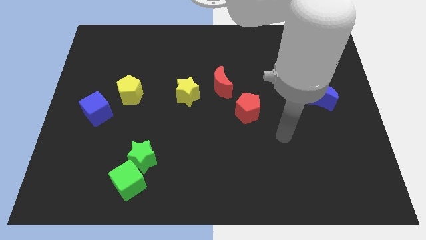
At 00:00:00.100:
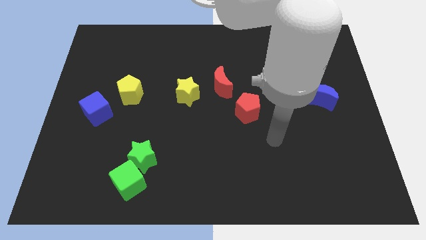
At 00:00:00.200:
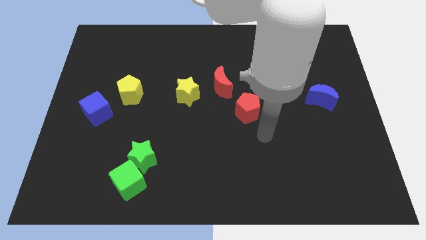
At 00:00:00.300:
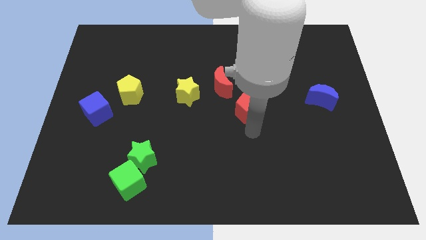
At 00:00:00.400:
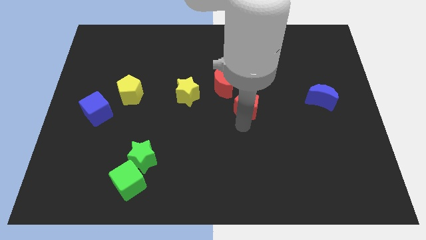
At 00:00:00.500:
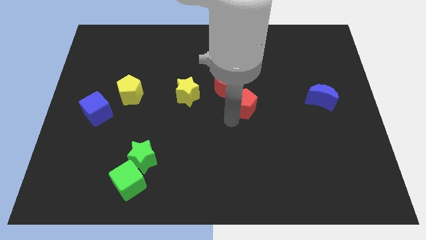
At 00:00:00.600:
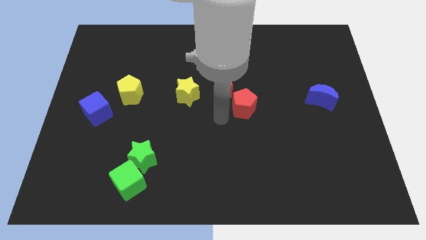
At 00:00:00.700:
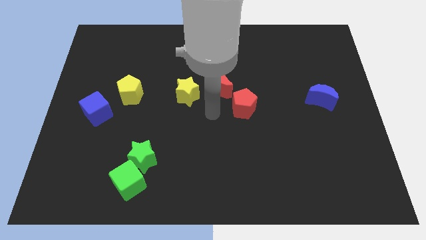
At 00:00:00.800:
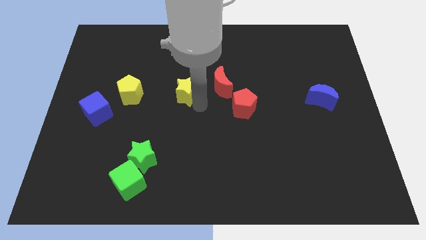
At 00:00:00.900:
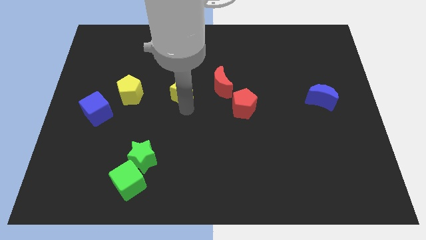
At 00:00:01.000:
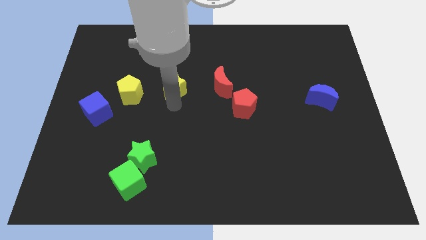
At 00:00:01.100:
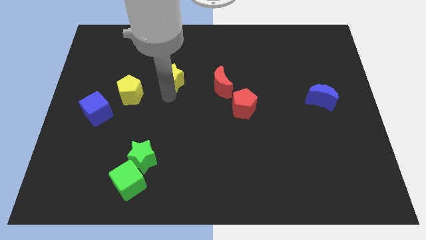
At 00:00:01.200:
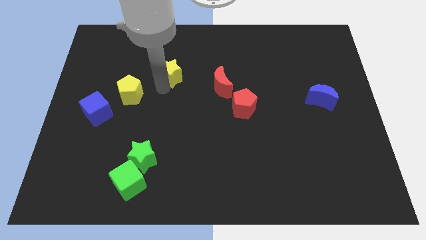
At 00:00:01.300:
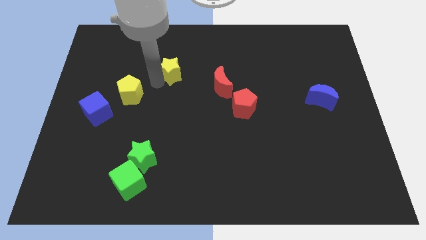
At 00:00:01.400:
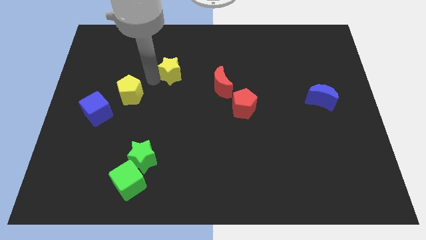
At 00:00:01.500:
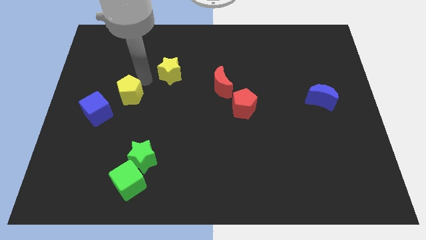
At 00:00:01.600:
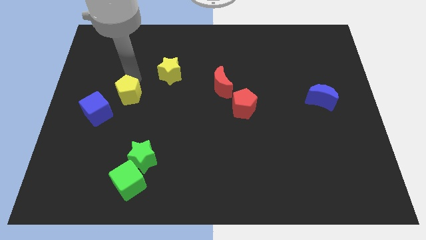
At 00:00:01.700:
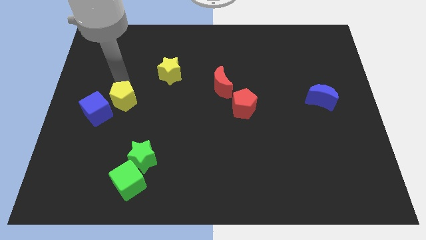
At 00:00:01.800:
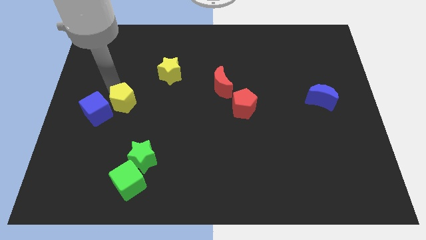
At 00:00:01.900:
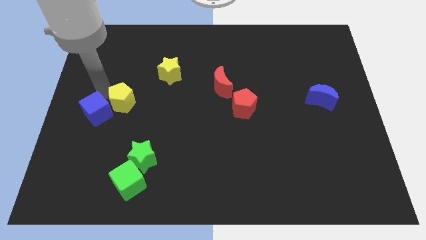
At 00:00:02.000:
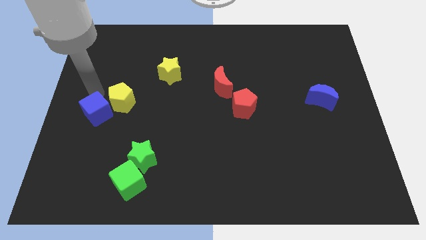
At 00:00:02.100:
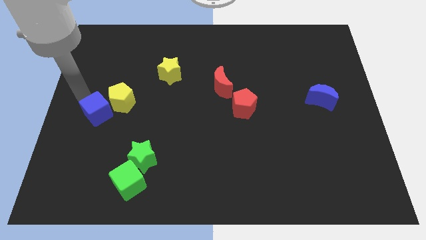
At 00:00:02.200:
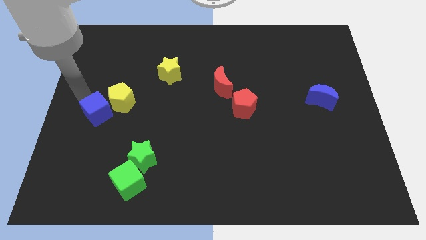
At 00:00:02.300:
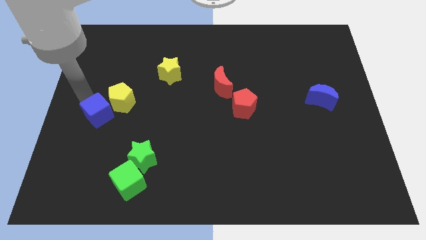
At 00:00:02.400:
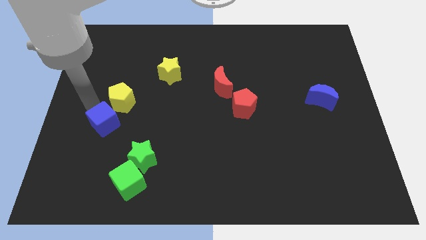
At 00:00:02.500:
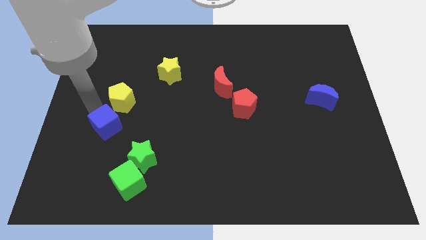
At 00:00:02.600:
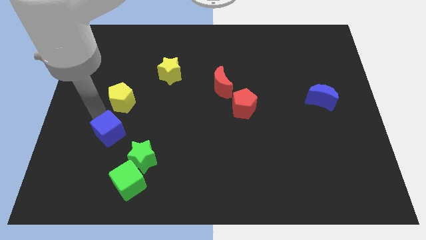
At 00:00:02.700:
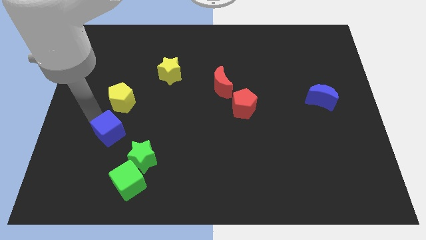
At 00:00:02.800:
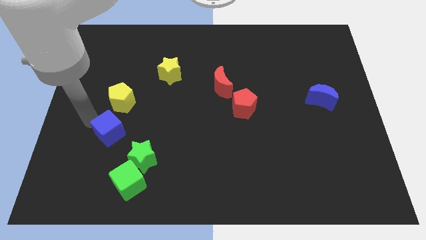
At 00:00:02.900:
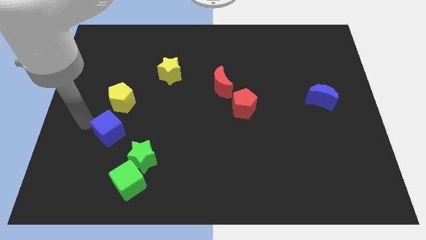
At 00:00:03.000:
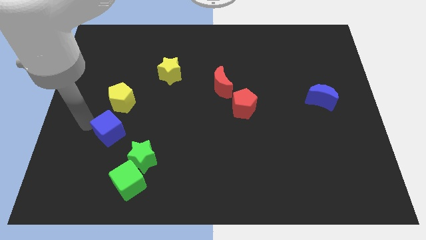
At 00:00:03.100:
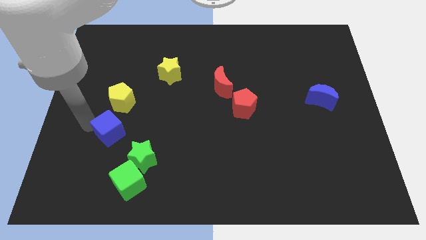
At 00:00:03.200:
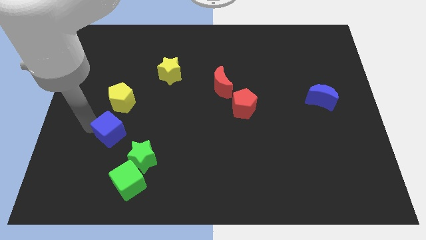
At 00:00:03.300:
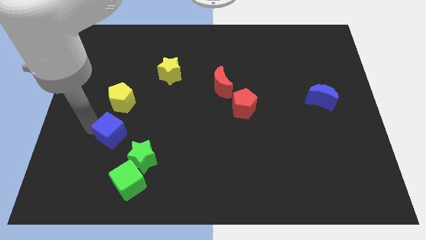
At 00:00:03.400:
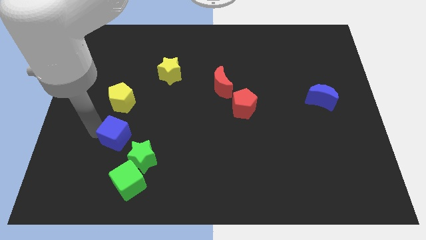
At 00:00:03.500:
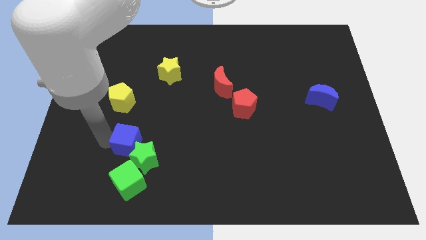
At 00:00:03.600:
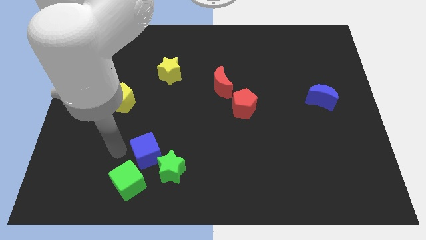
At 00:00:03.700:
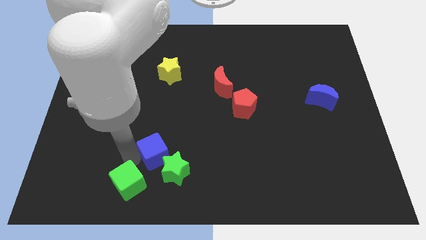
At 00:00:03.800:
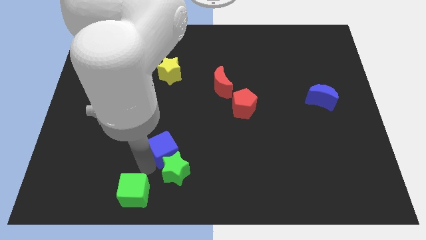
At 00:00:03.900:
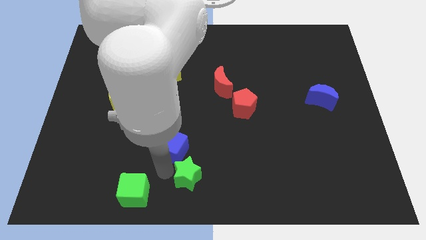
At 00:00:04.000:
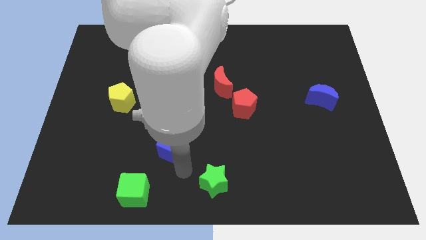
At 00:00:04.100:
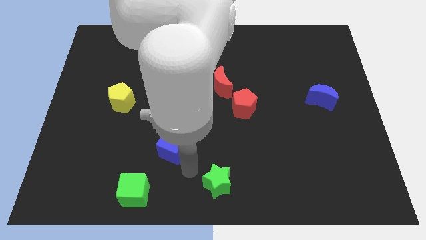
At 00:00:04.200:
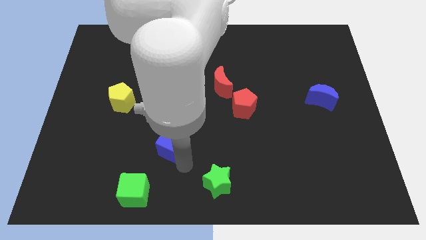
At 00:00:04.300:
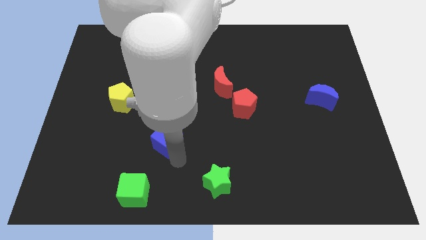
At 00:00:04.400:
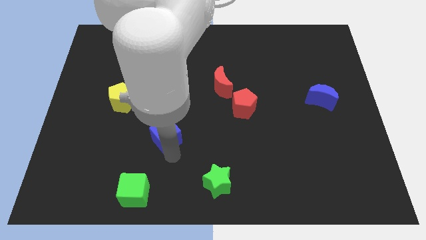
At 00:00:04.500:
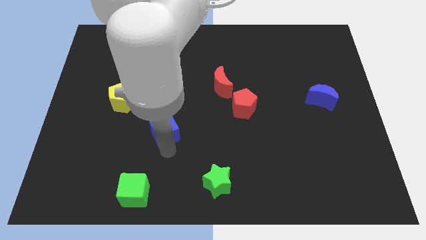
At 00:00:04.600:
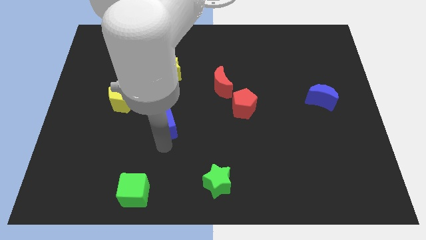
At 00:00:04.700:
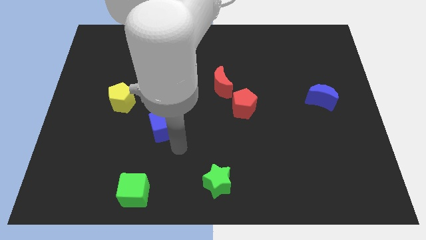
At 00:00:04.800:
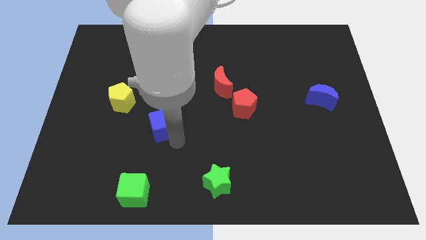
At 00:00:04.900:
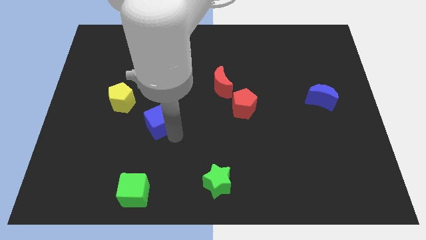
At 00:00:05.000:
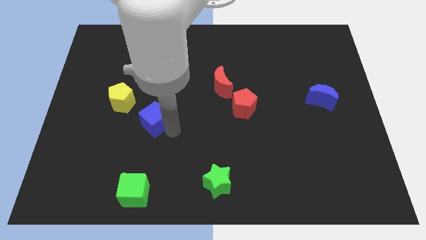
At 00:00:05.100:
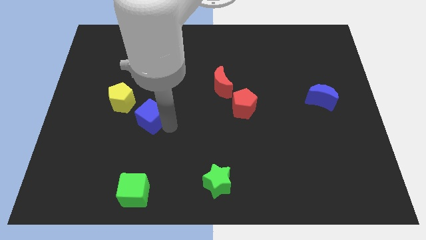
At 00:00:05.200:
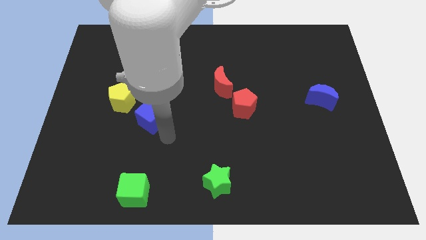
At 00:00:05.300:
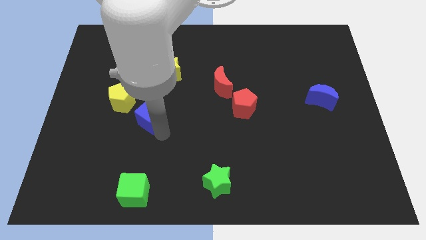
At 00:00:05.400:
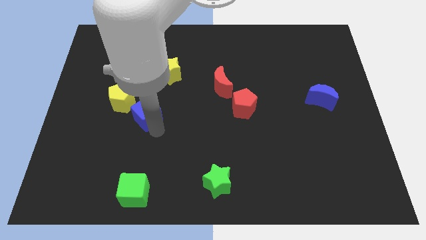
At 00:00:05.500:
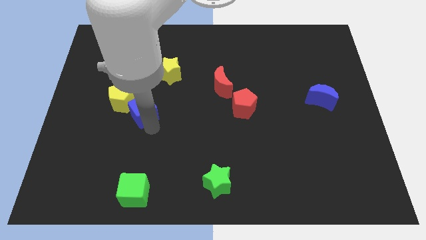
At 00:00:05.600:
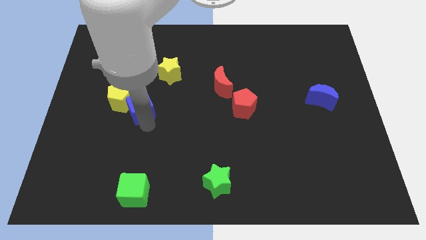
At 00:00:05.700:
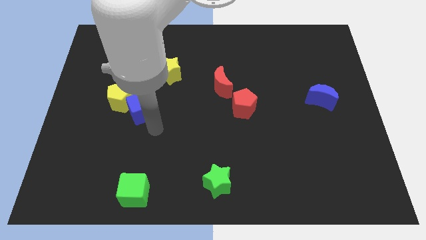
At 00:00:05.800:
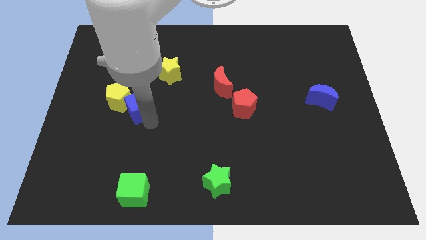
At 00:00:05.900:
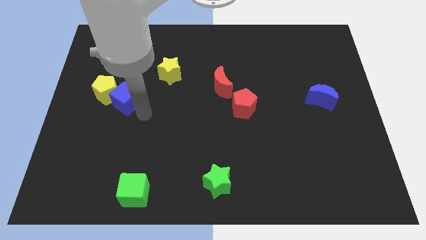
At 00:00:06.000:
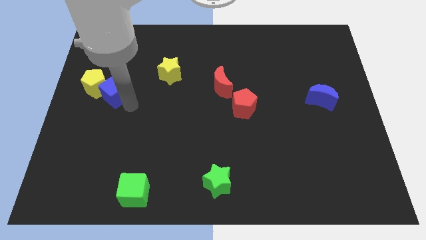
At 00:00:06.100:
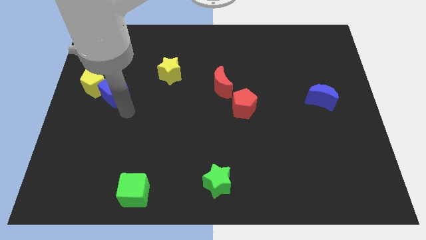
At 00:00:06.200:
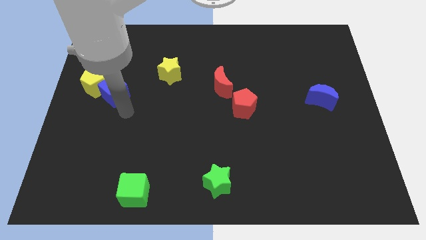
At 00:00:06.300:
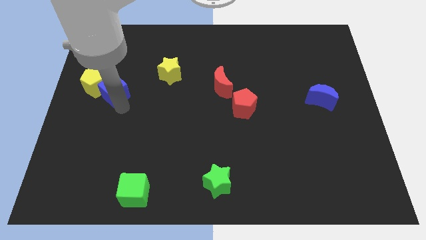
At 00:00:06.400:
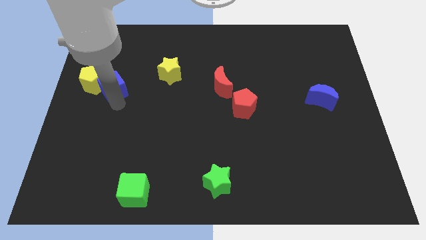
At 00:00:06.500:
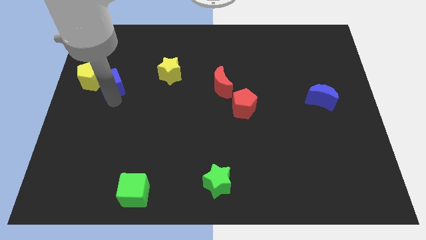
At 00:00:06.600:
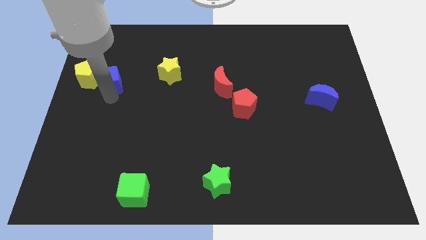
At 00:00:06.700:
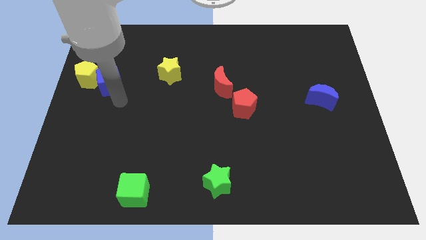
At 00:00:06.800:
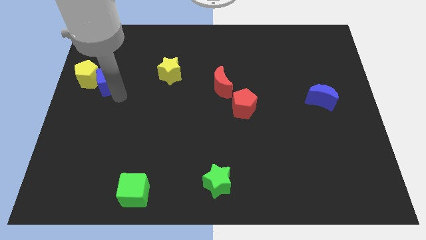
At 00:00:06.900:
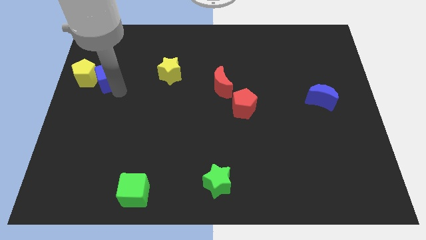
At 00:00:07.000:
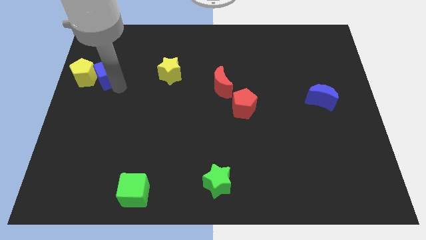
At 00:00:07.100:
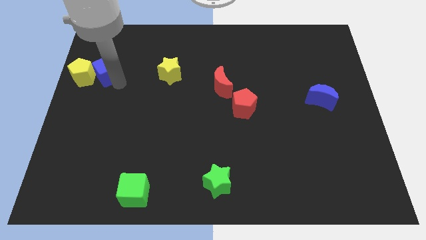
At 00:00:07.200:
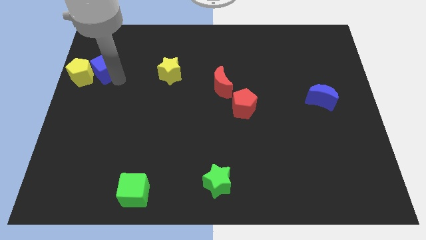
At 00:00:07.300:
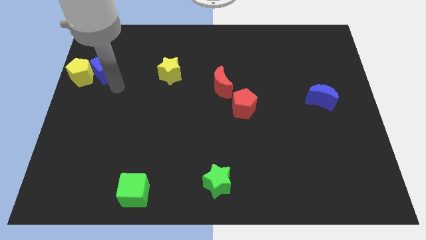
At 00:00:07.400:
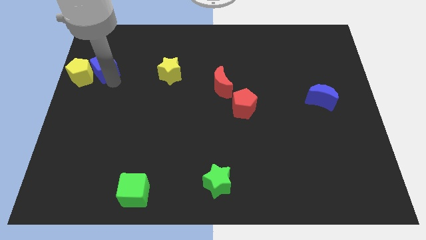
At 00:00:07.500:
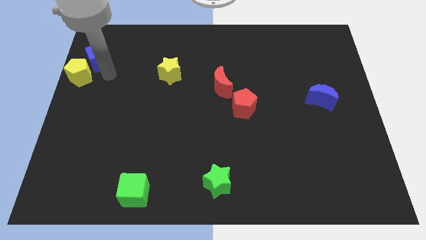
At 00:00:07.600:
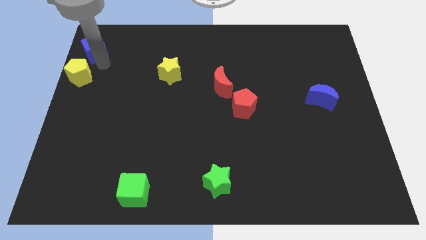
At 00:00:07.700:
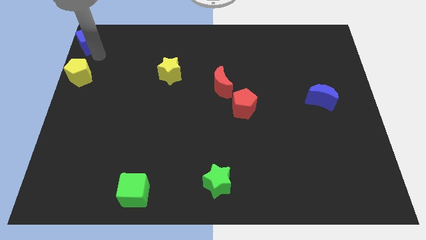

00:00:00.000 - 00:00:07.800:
put the blue cube to the top left corner
